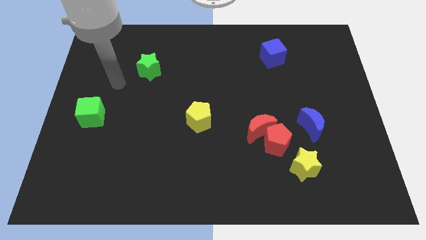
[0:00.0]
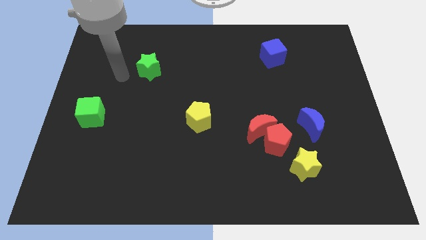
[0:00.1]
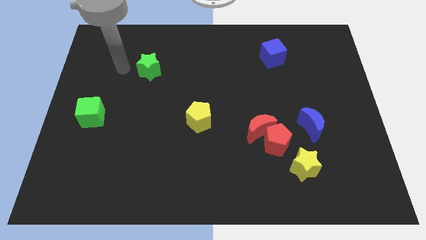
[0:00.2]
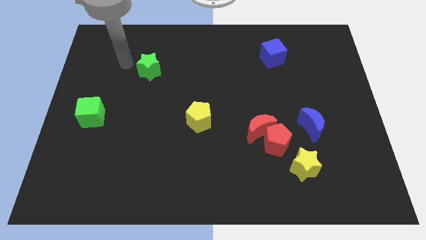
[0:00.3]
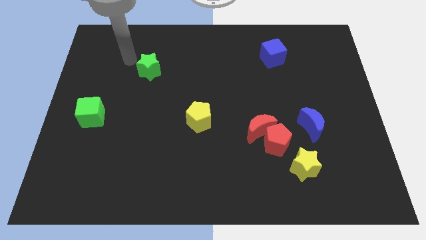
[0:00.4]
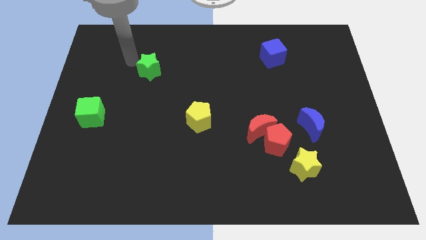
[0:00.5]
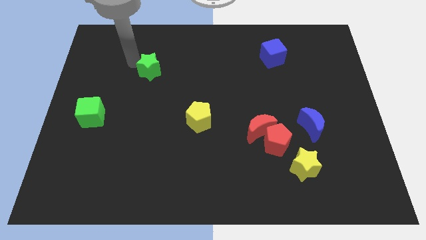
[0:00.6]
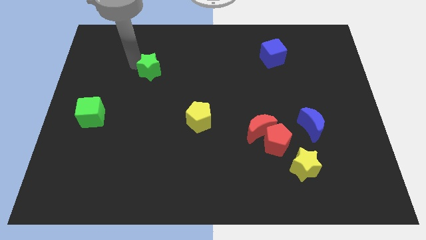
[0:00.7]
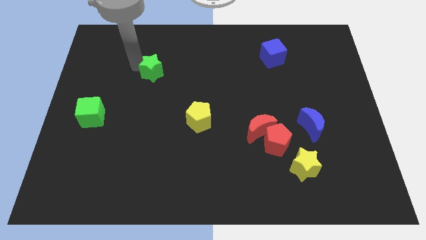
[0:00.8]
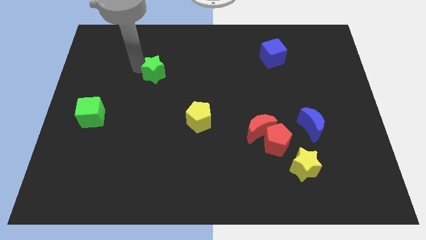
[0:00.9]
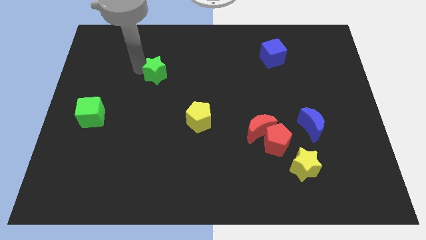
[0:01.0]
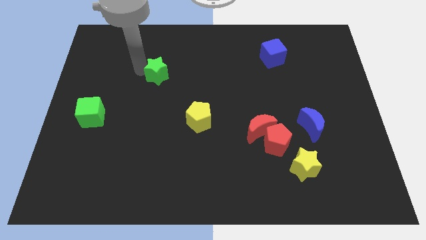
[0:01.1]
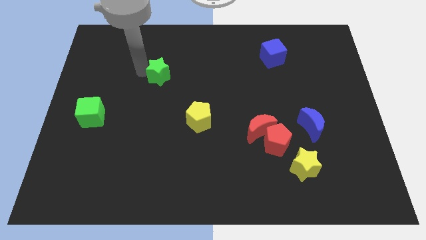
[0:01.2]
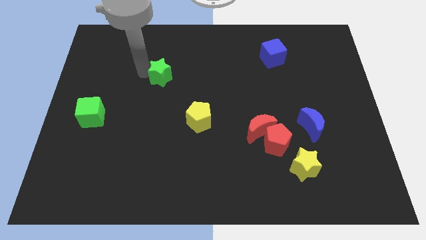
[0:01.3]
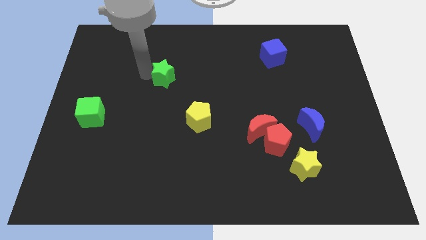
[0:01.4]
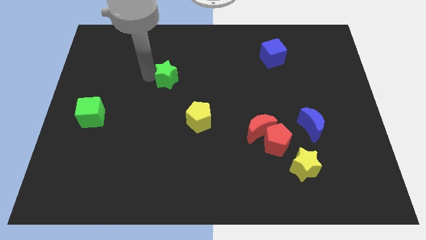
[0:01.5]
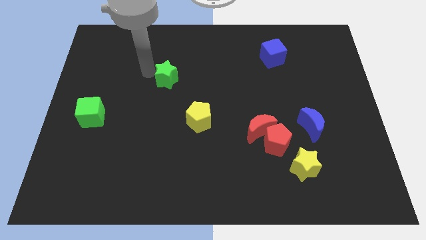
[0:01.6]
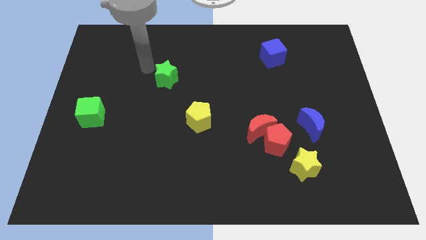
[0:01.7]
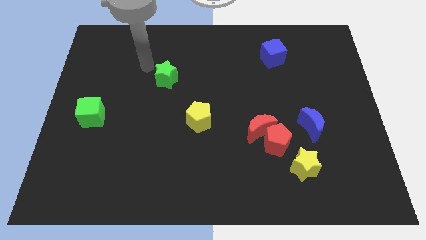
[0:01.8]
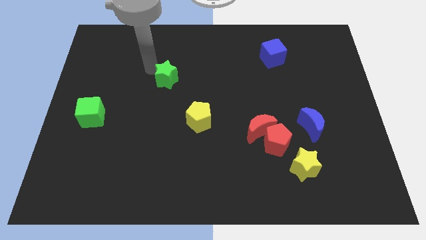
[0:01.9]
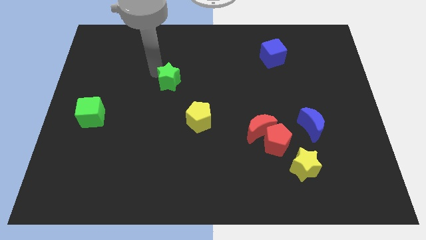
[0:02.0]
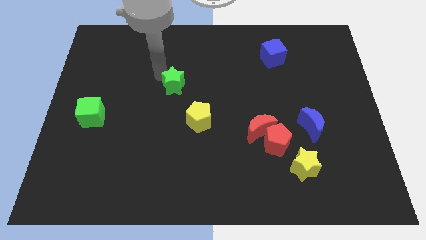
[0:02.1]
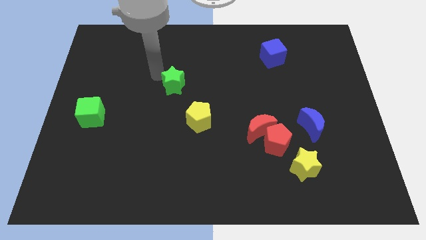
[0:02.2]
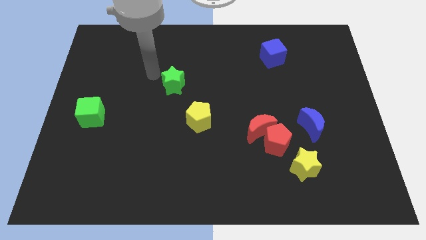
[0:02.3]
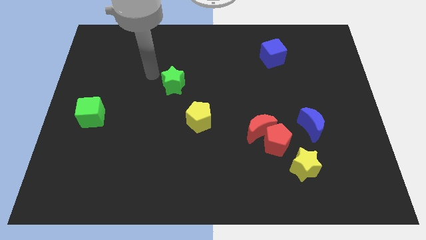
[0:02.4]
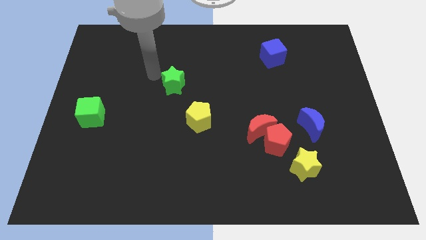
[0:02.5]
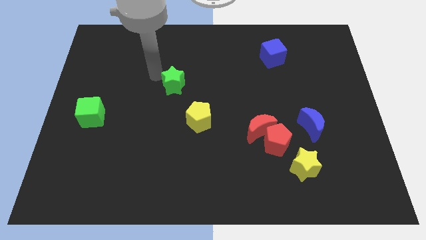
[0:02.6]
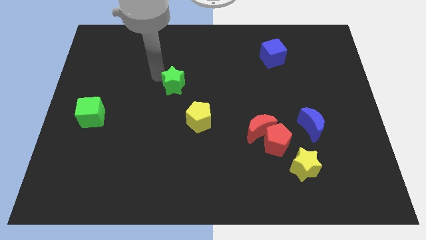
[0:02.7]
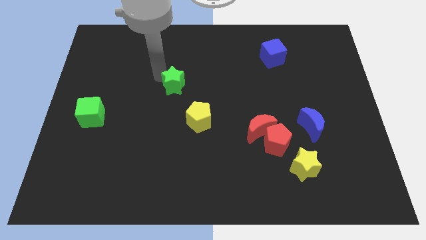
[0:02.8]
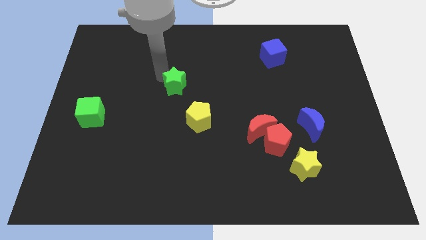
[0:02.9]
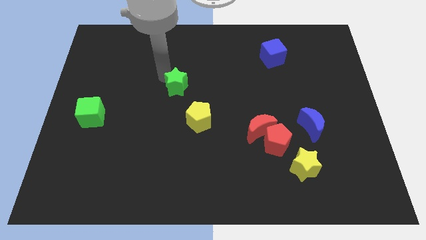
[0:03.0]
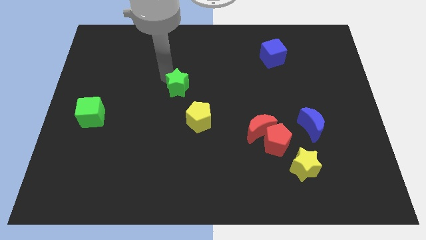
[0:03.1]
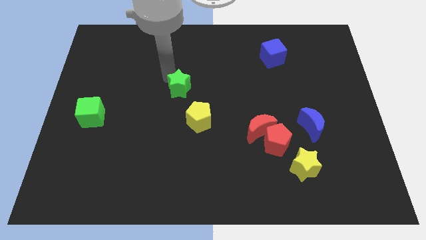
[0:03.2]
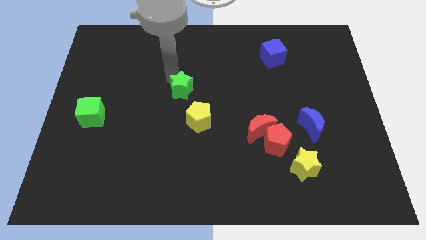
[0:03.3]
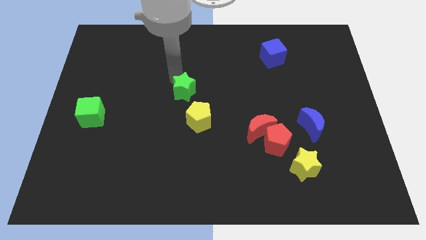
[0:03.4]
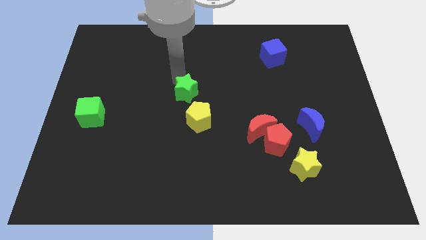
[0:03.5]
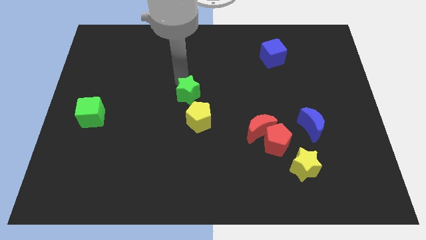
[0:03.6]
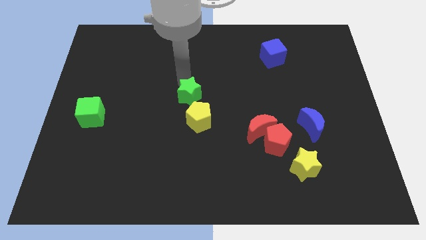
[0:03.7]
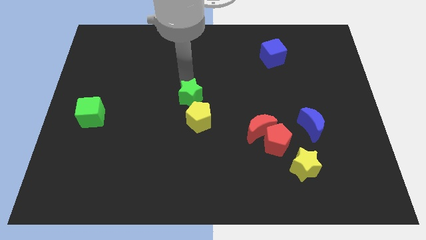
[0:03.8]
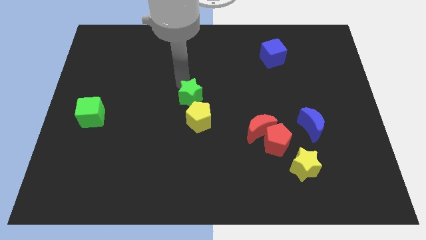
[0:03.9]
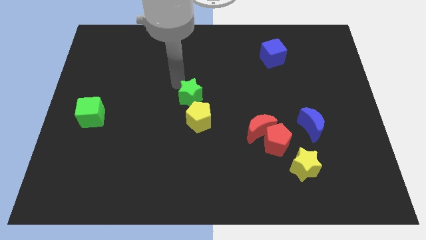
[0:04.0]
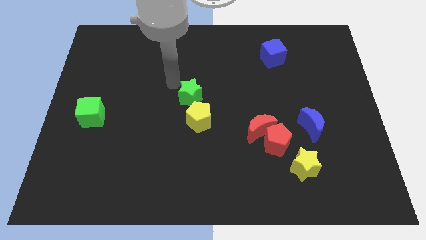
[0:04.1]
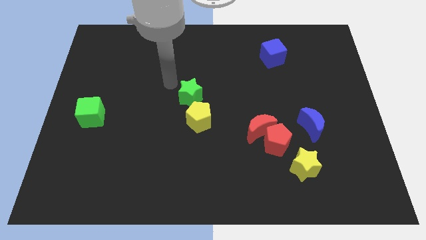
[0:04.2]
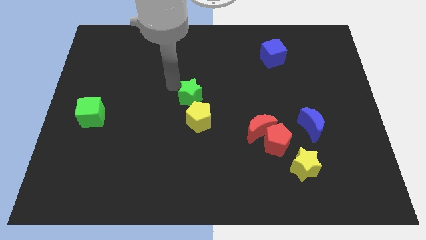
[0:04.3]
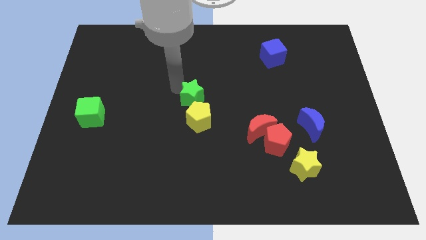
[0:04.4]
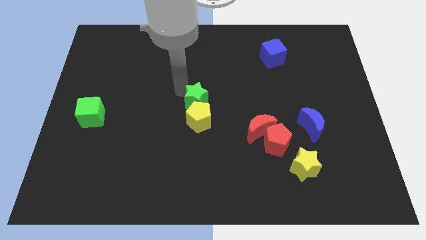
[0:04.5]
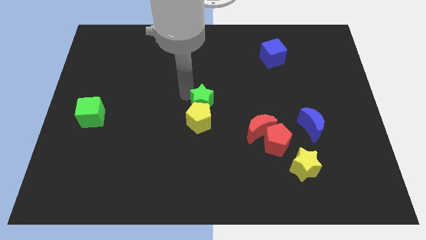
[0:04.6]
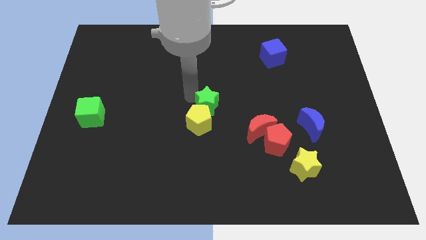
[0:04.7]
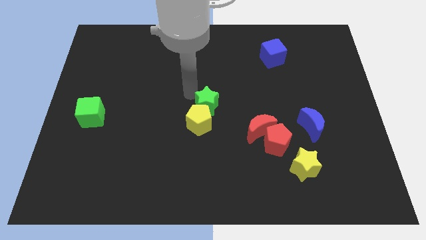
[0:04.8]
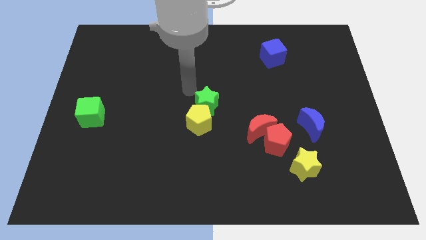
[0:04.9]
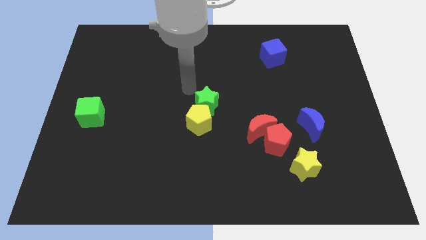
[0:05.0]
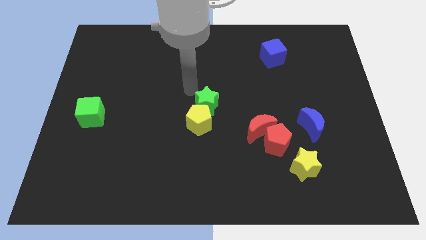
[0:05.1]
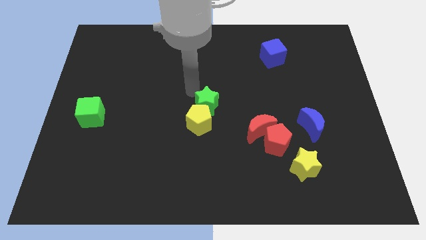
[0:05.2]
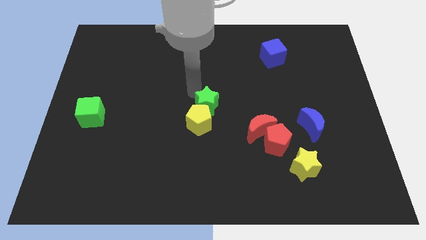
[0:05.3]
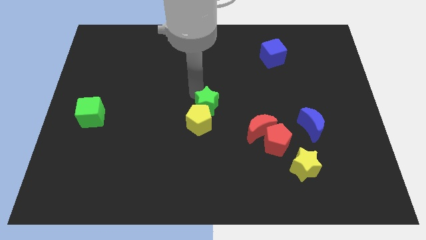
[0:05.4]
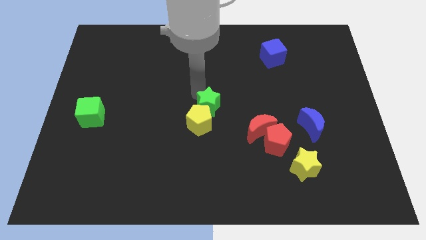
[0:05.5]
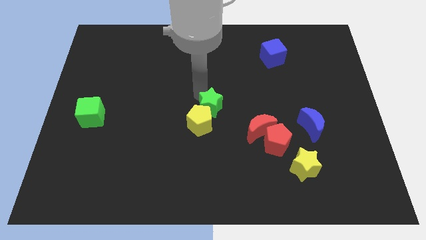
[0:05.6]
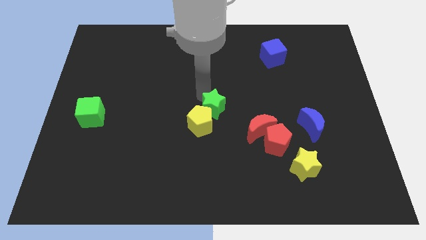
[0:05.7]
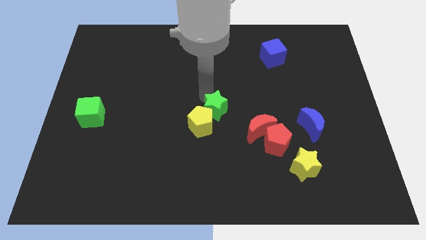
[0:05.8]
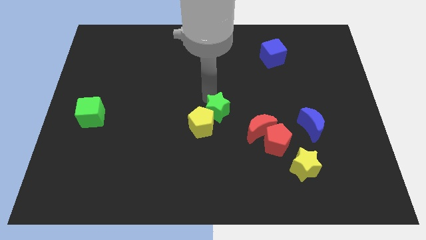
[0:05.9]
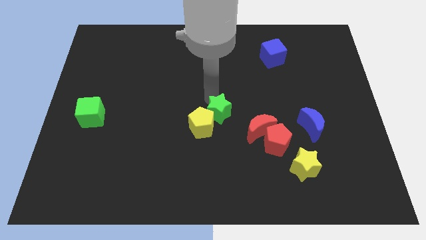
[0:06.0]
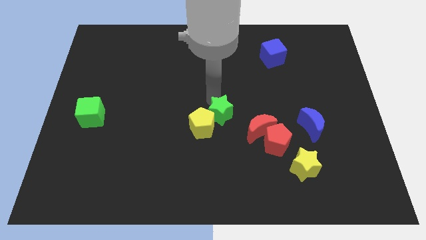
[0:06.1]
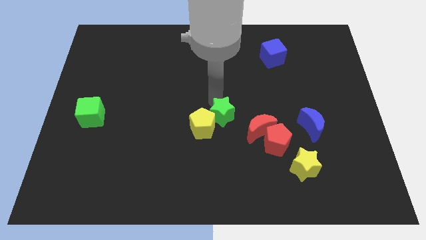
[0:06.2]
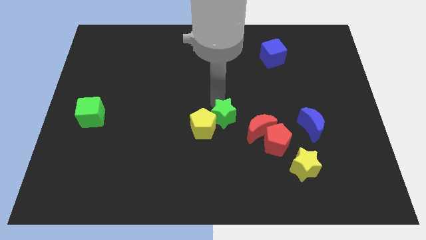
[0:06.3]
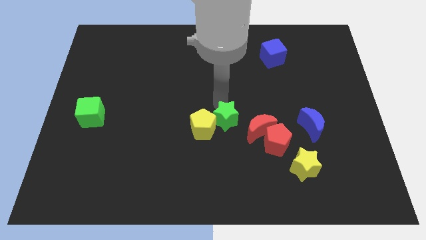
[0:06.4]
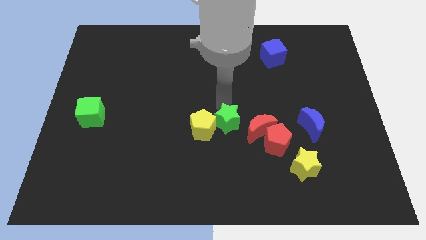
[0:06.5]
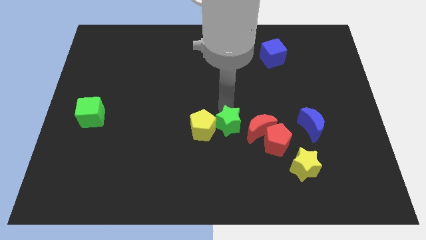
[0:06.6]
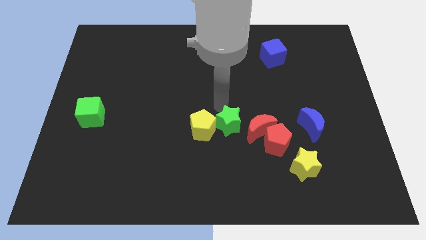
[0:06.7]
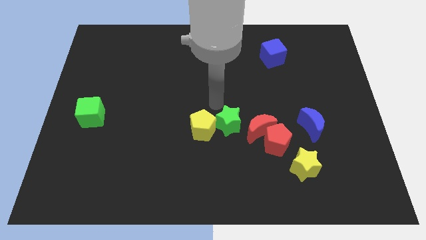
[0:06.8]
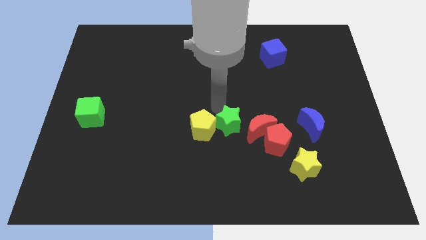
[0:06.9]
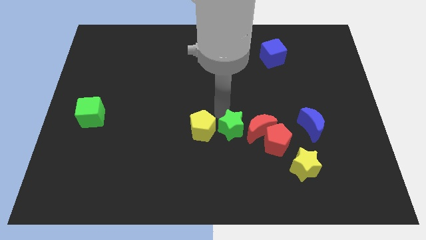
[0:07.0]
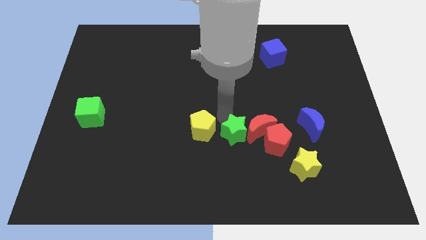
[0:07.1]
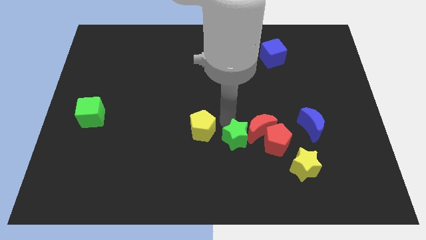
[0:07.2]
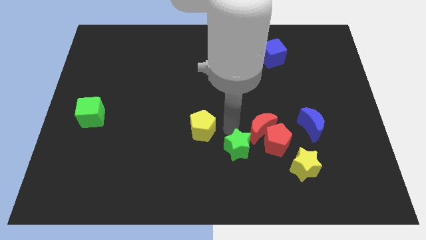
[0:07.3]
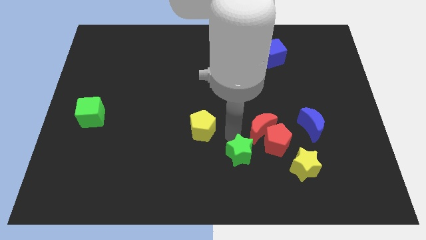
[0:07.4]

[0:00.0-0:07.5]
push the green star left of the yellow star
